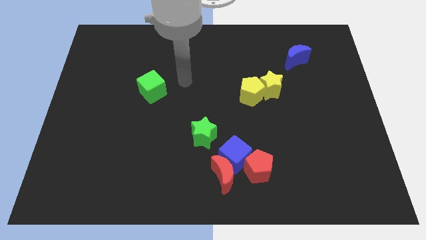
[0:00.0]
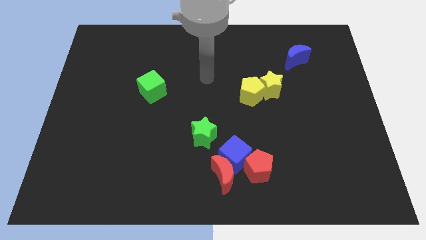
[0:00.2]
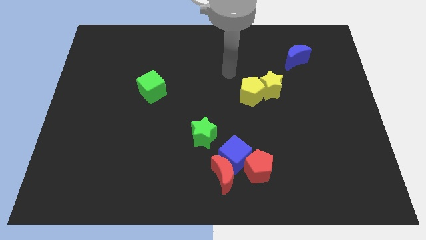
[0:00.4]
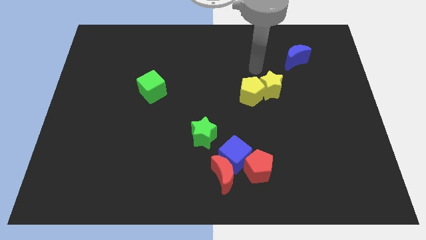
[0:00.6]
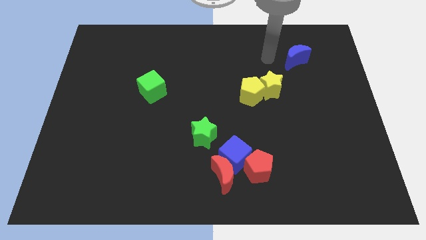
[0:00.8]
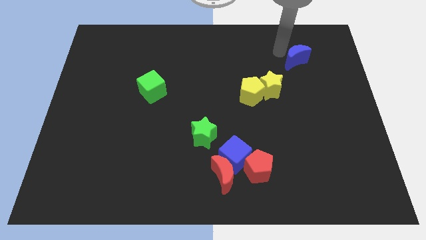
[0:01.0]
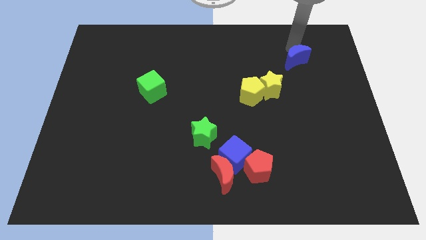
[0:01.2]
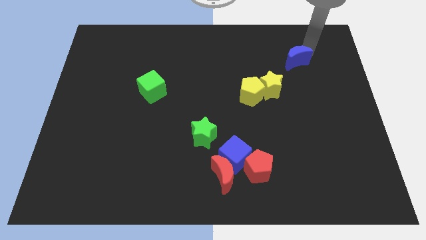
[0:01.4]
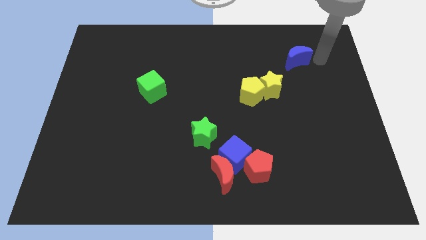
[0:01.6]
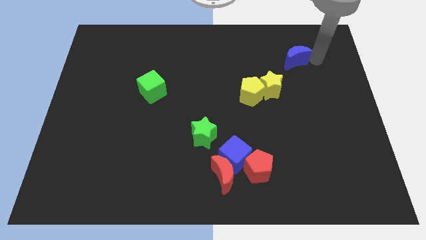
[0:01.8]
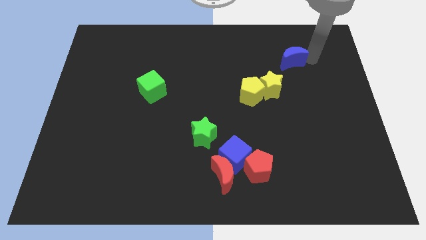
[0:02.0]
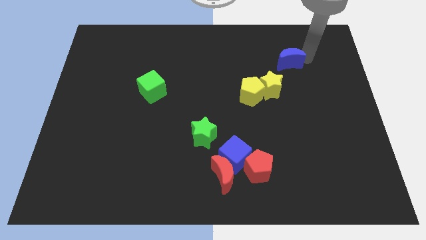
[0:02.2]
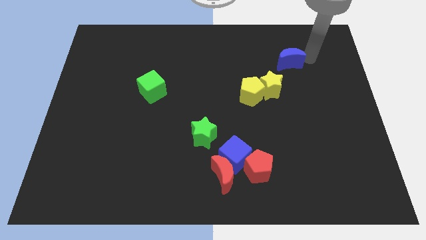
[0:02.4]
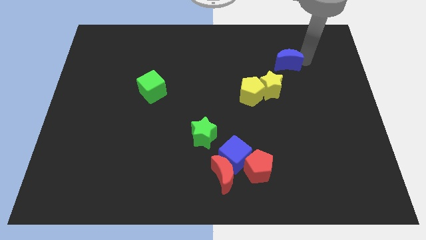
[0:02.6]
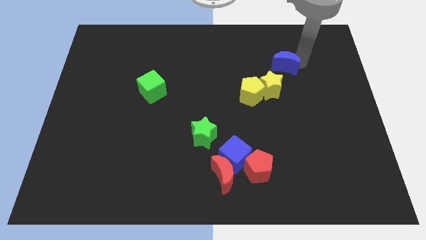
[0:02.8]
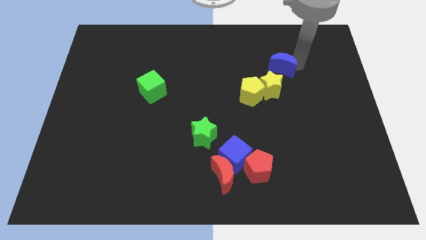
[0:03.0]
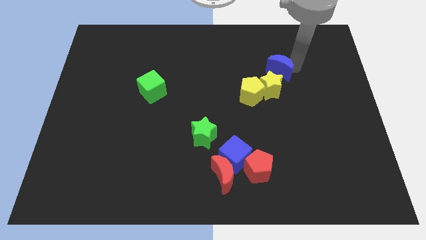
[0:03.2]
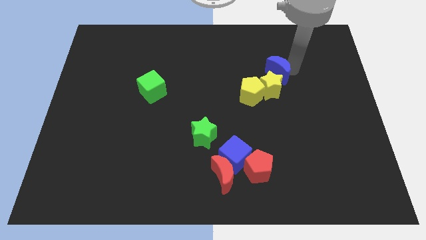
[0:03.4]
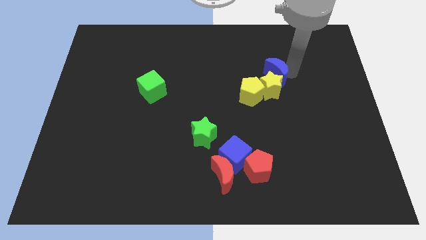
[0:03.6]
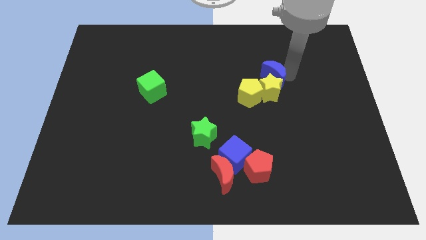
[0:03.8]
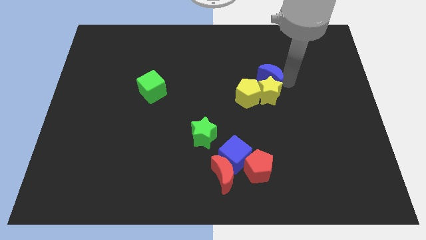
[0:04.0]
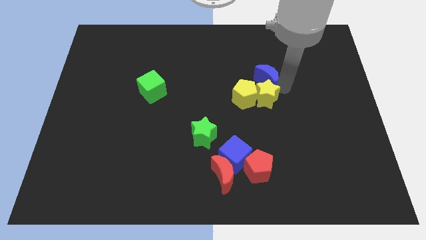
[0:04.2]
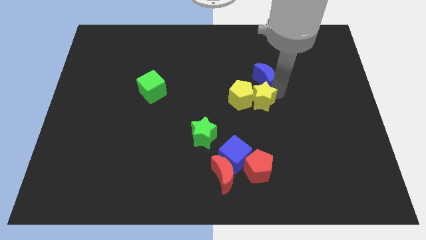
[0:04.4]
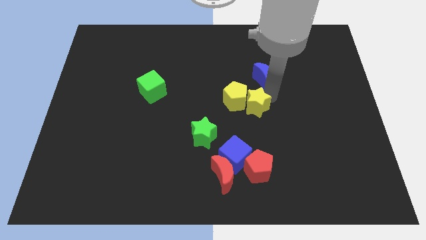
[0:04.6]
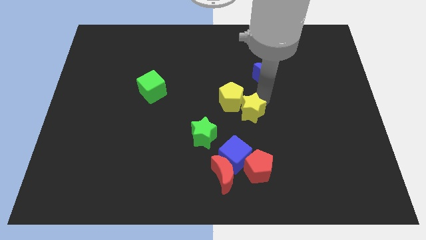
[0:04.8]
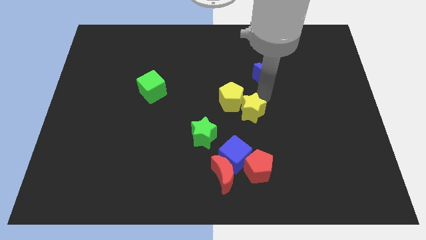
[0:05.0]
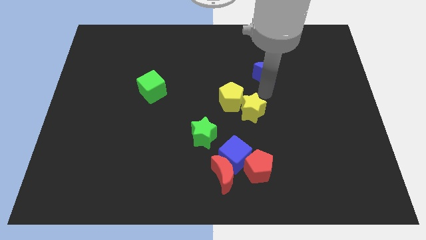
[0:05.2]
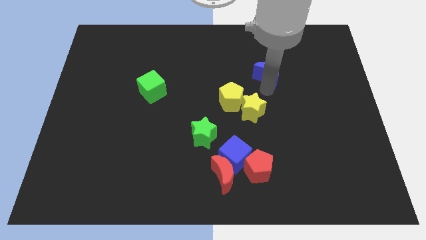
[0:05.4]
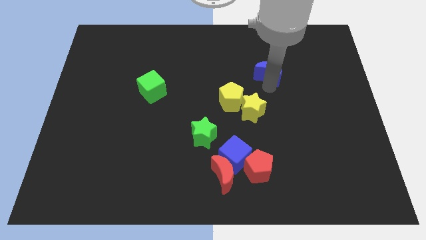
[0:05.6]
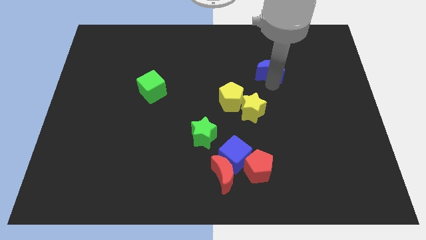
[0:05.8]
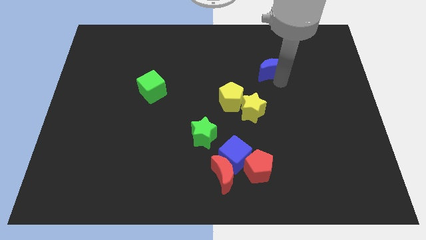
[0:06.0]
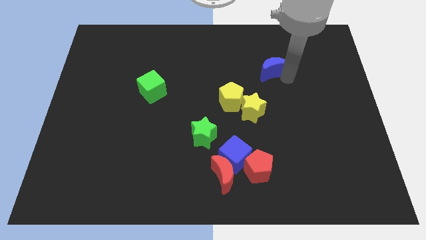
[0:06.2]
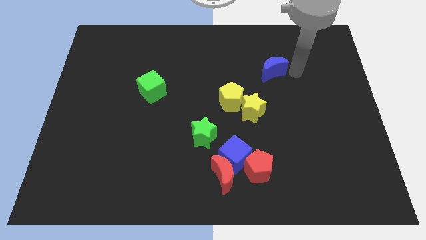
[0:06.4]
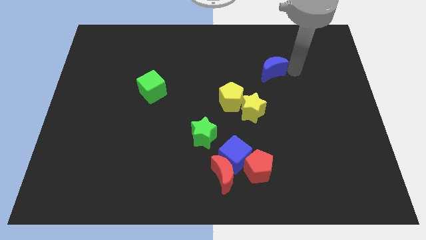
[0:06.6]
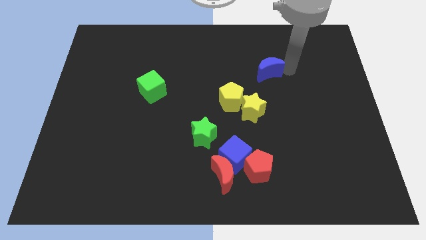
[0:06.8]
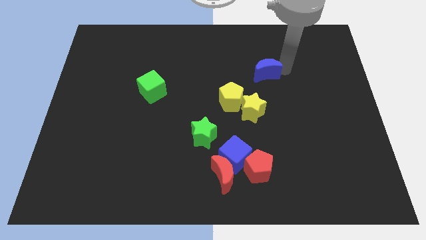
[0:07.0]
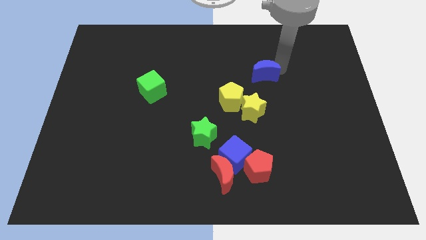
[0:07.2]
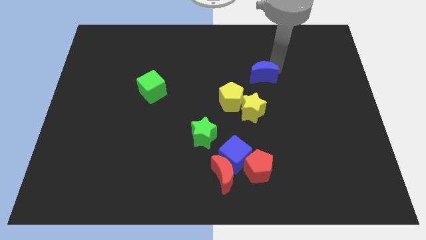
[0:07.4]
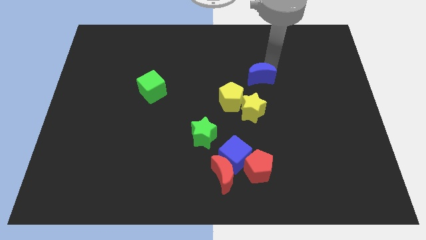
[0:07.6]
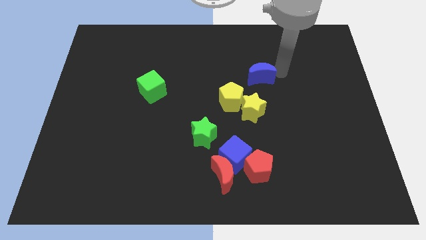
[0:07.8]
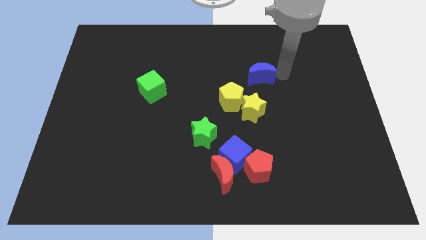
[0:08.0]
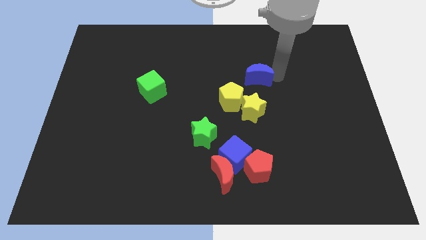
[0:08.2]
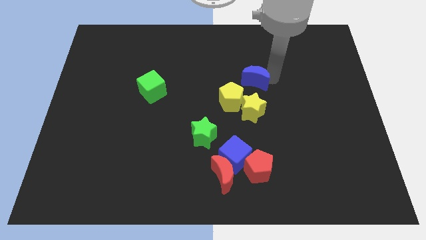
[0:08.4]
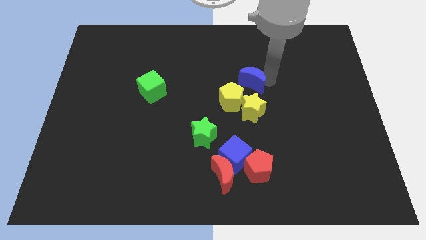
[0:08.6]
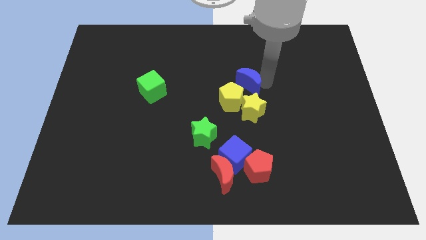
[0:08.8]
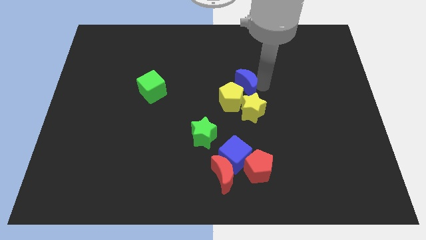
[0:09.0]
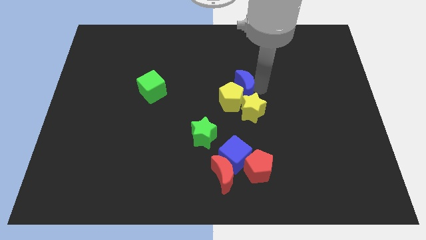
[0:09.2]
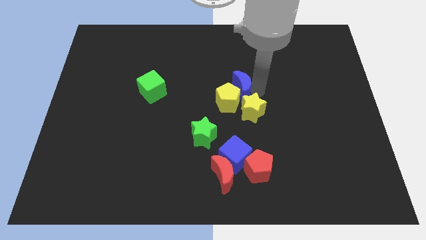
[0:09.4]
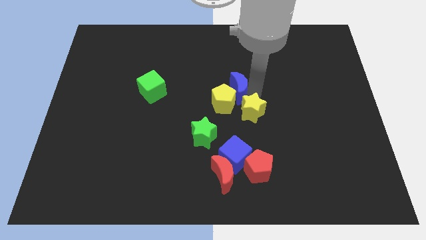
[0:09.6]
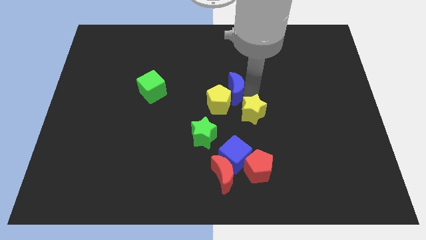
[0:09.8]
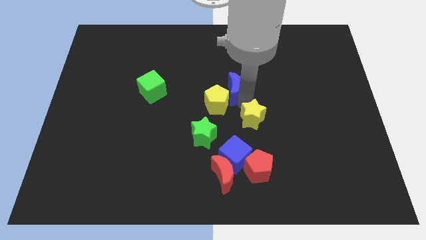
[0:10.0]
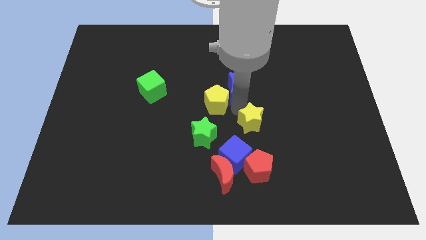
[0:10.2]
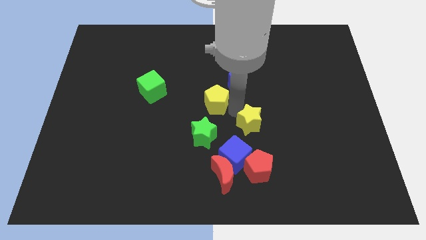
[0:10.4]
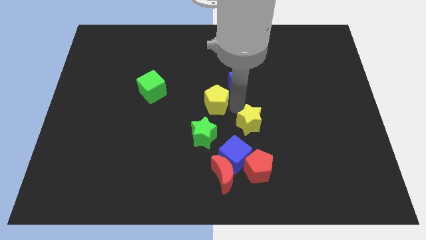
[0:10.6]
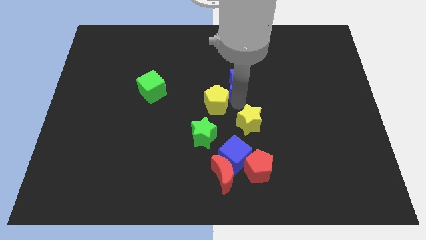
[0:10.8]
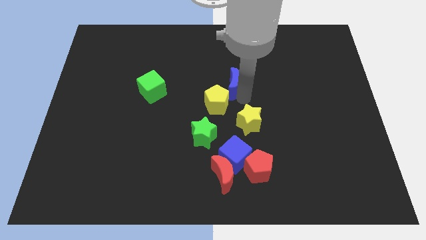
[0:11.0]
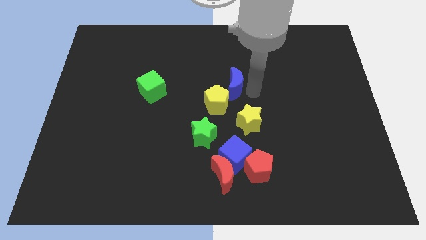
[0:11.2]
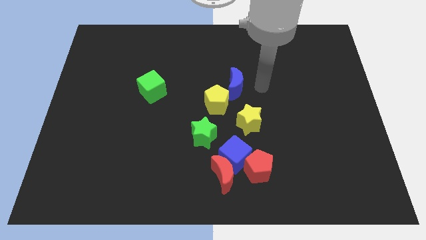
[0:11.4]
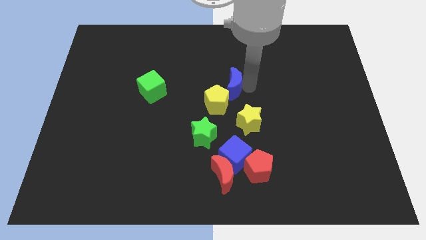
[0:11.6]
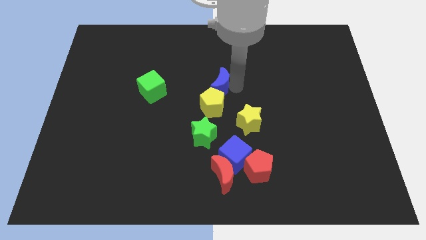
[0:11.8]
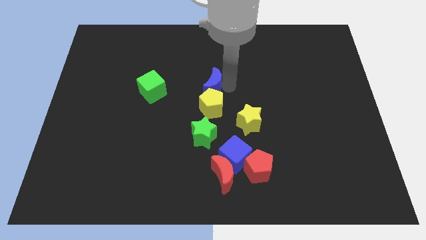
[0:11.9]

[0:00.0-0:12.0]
slide the blue moon right of the green cube
